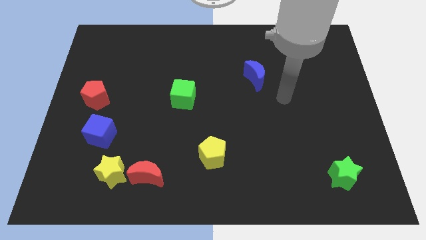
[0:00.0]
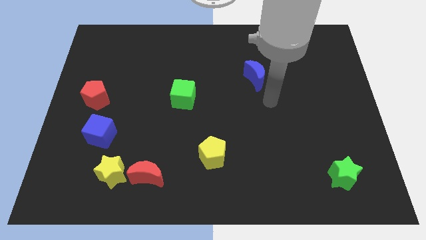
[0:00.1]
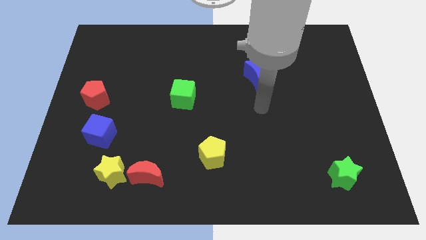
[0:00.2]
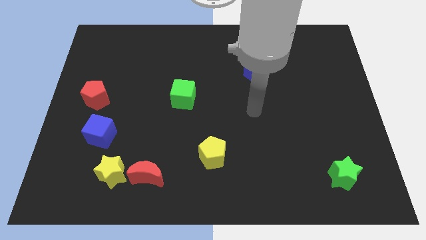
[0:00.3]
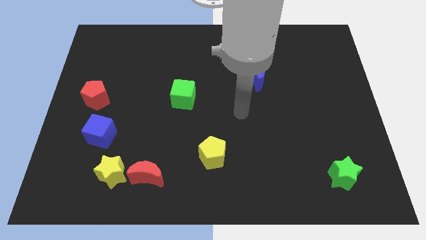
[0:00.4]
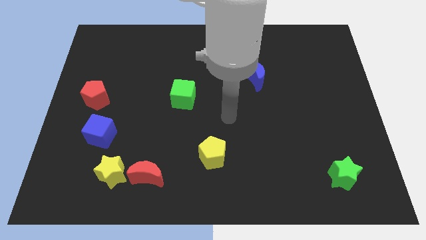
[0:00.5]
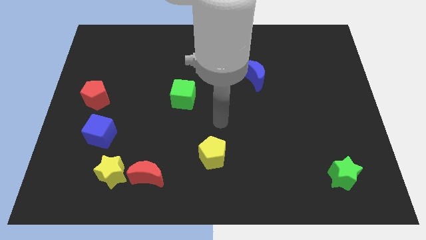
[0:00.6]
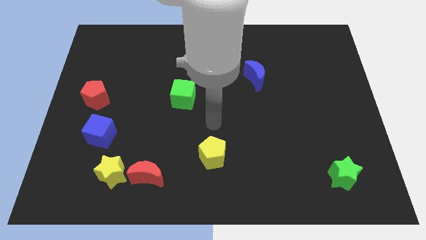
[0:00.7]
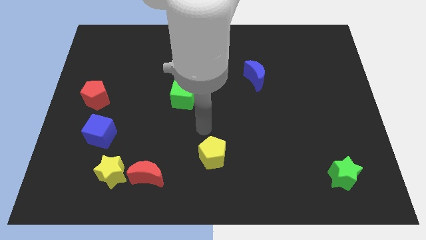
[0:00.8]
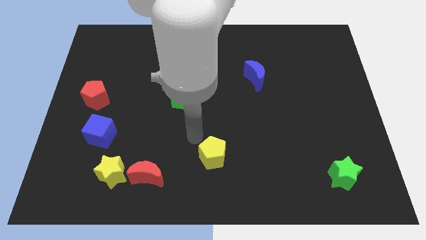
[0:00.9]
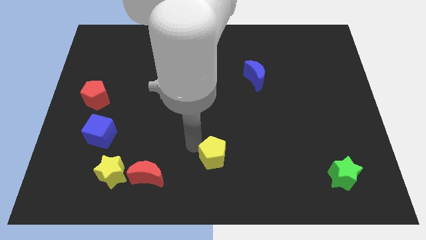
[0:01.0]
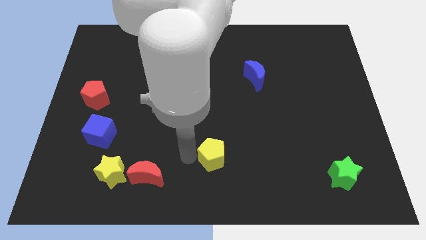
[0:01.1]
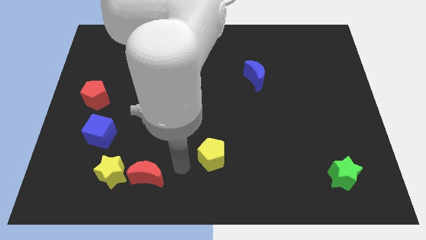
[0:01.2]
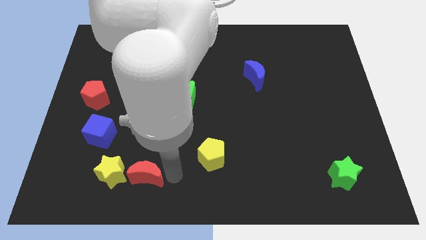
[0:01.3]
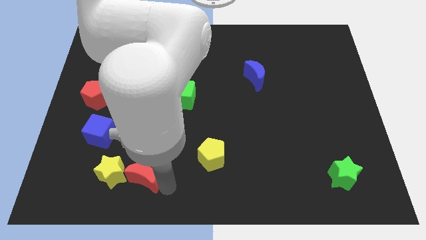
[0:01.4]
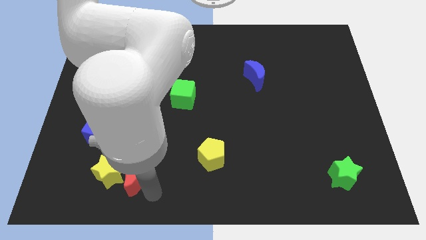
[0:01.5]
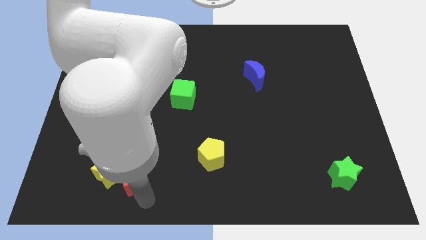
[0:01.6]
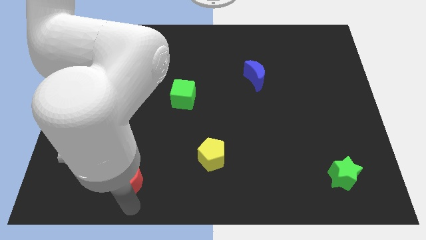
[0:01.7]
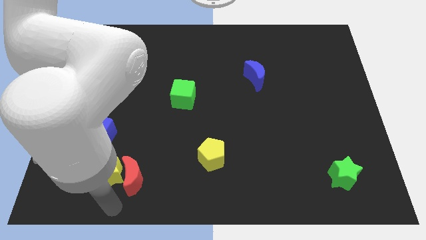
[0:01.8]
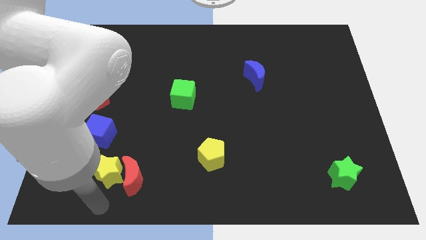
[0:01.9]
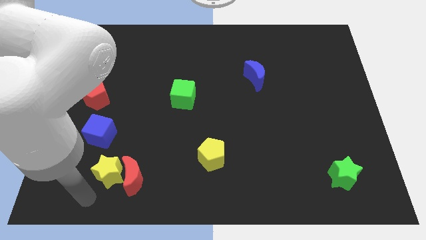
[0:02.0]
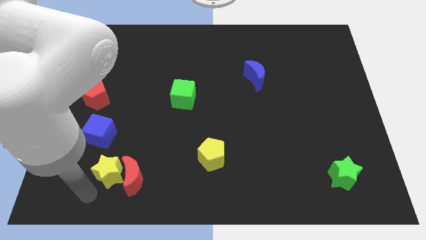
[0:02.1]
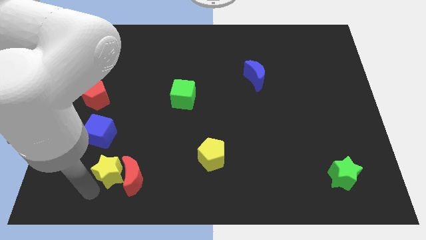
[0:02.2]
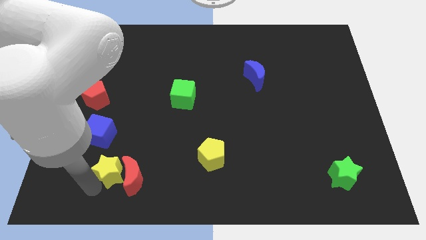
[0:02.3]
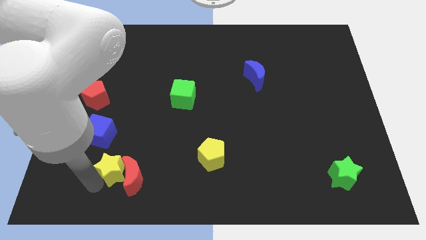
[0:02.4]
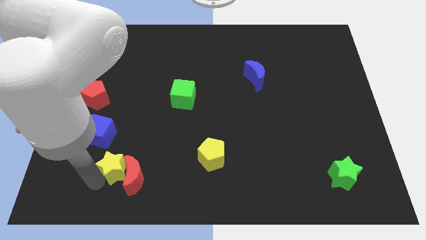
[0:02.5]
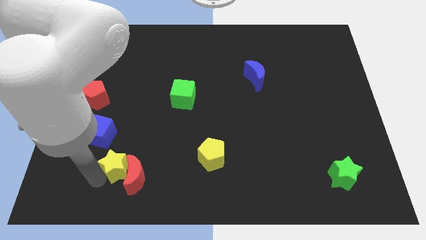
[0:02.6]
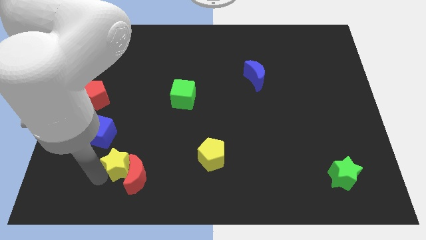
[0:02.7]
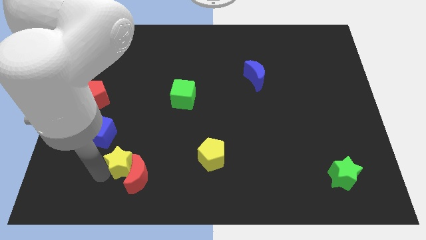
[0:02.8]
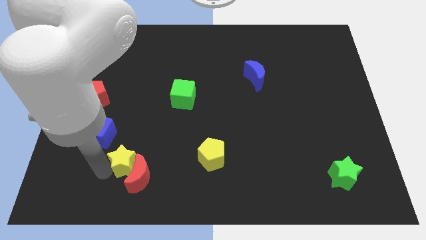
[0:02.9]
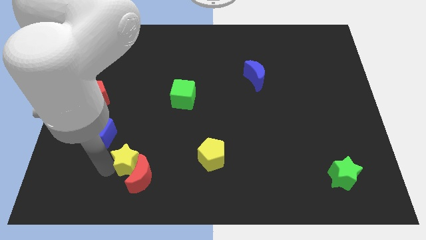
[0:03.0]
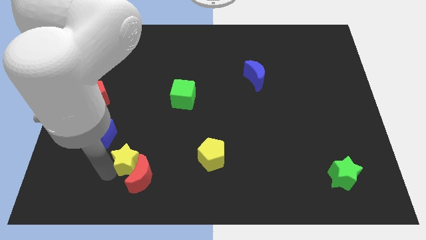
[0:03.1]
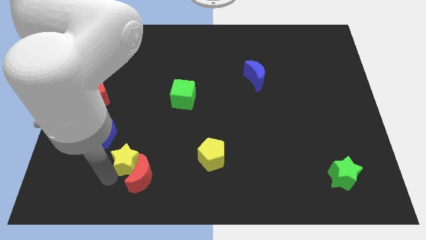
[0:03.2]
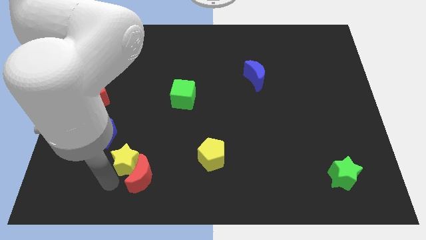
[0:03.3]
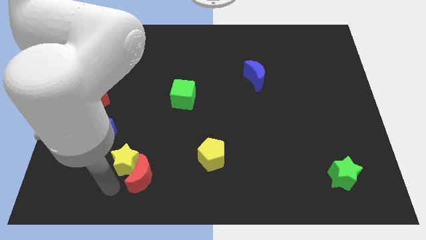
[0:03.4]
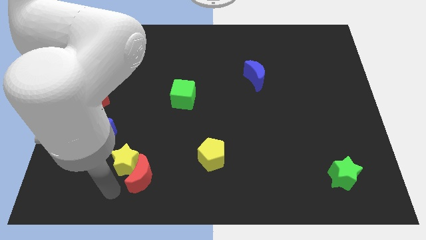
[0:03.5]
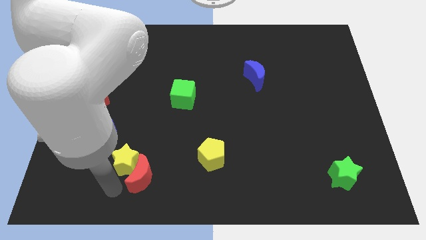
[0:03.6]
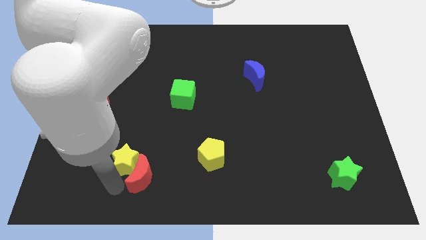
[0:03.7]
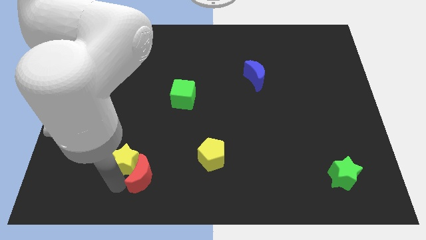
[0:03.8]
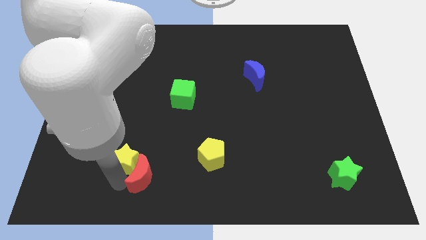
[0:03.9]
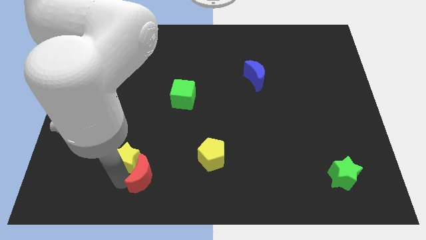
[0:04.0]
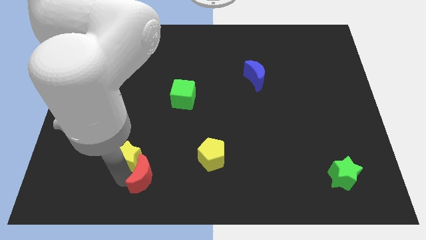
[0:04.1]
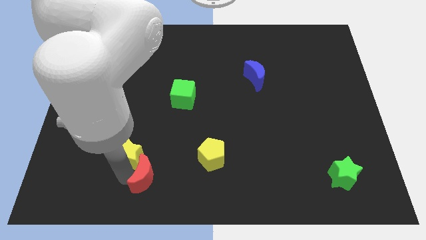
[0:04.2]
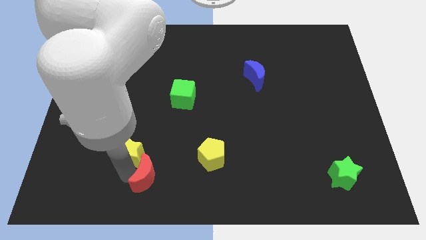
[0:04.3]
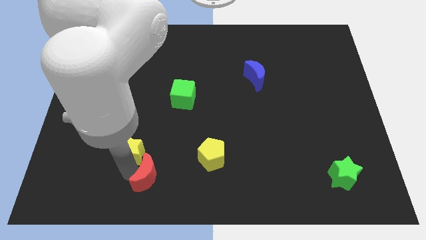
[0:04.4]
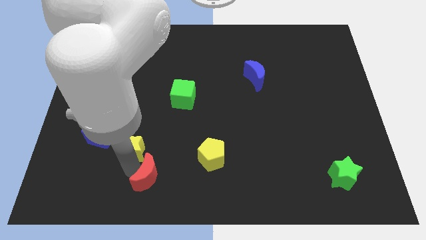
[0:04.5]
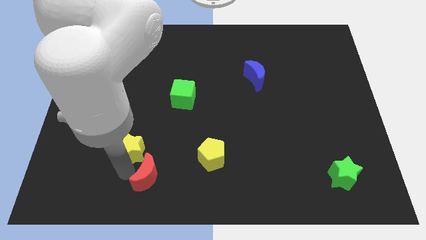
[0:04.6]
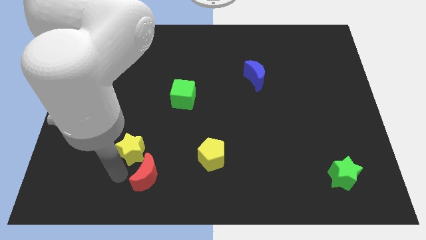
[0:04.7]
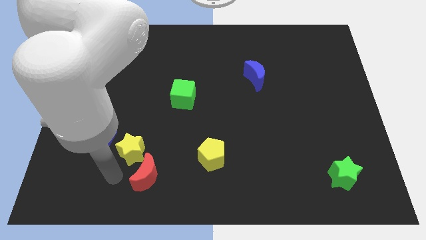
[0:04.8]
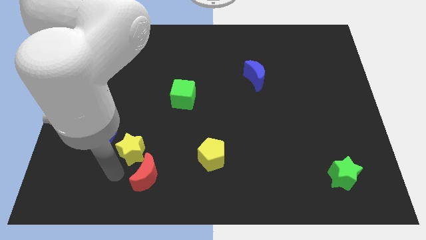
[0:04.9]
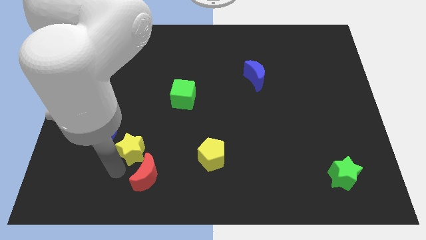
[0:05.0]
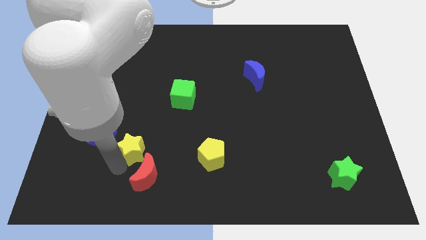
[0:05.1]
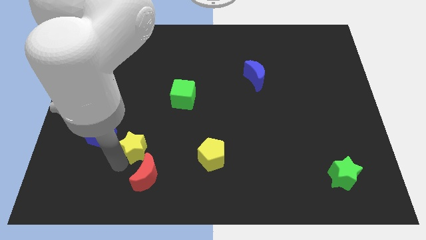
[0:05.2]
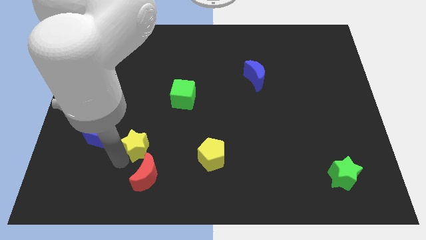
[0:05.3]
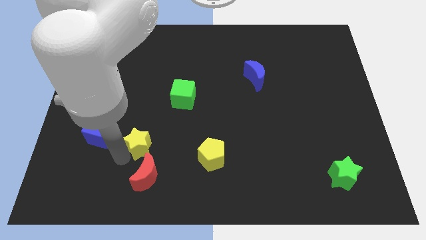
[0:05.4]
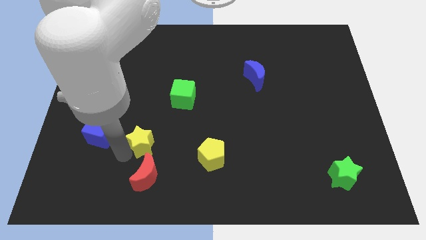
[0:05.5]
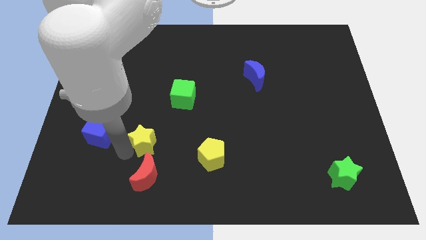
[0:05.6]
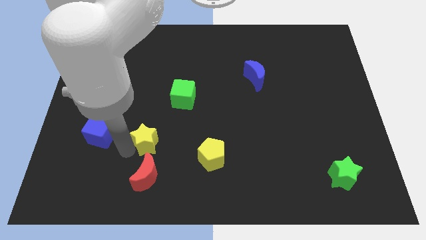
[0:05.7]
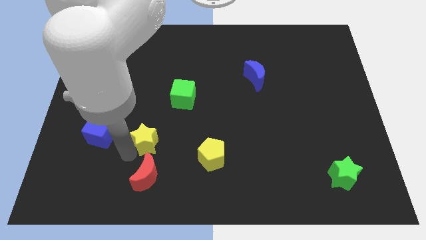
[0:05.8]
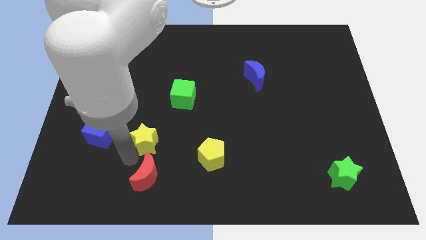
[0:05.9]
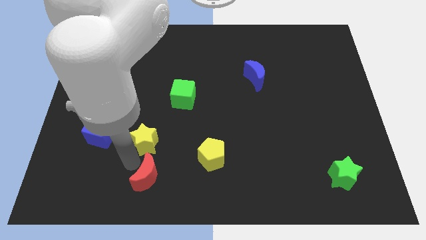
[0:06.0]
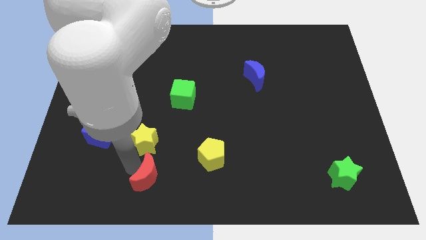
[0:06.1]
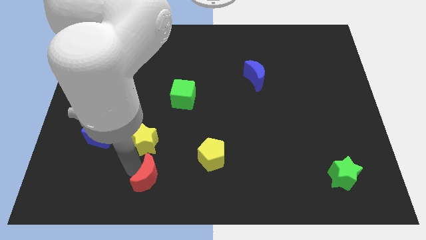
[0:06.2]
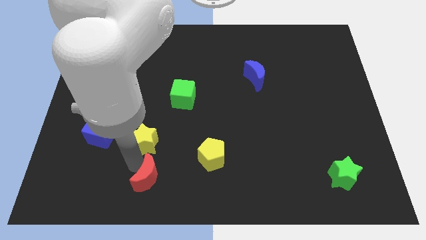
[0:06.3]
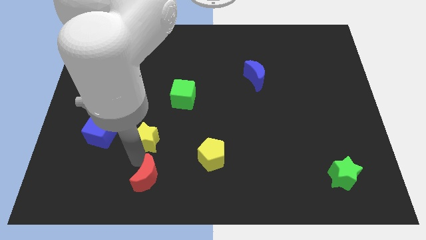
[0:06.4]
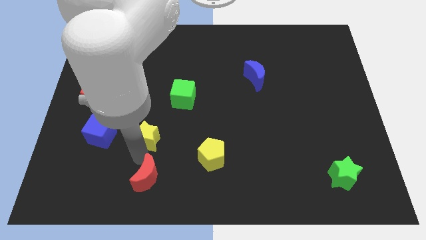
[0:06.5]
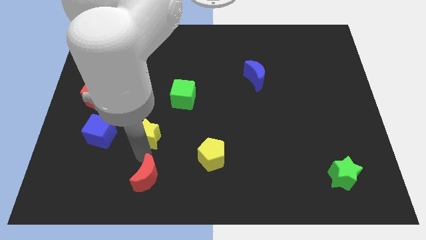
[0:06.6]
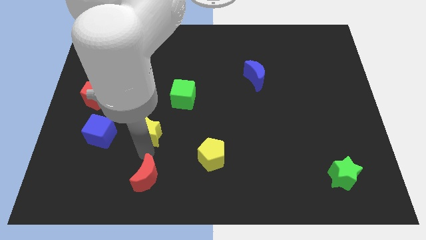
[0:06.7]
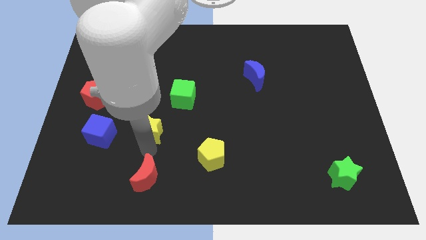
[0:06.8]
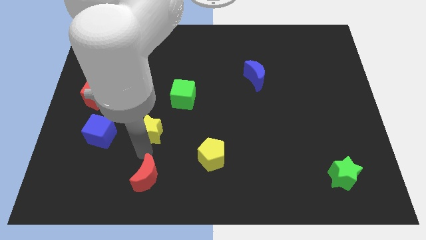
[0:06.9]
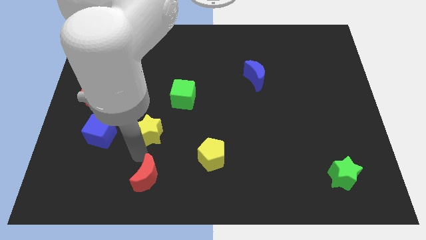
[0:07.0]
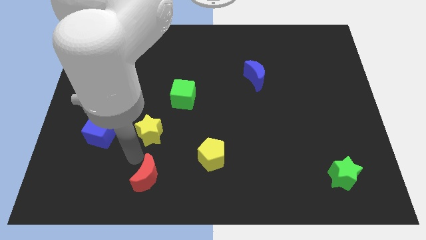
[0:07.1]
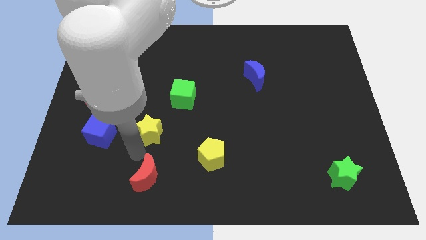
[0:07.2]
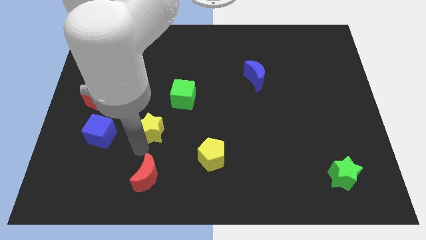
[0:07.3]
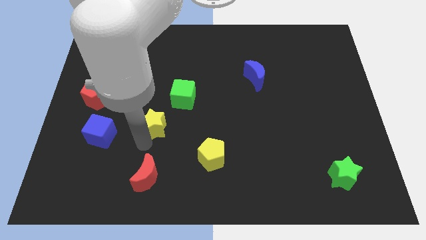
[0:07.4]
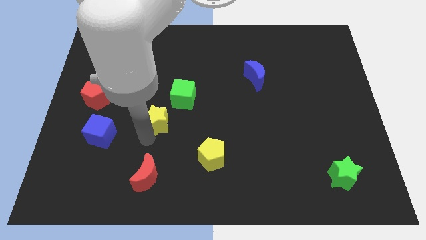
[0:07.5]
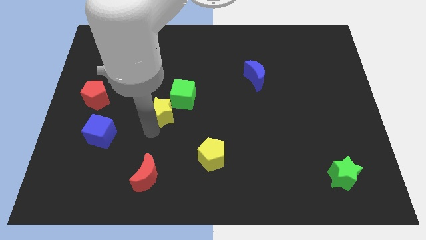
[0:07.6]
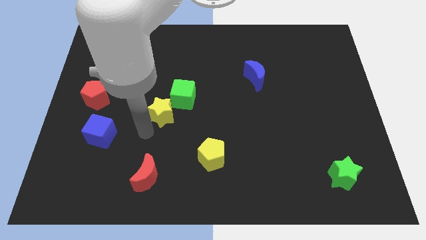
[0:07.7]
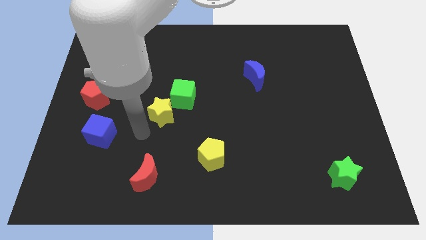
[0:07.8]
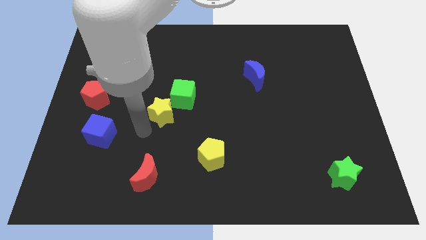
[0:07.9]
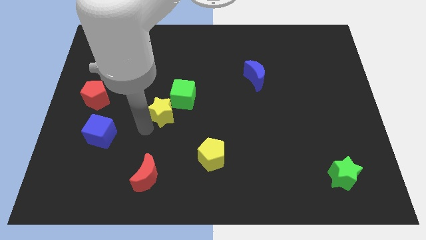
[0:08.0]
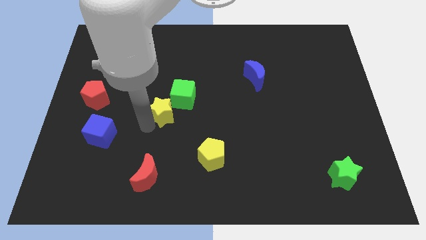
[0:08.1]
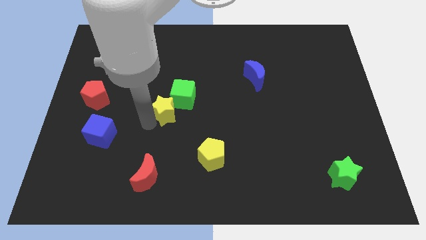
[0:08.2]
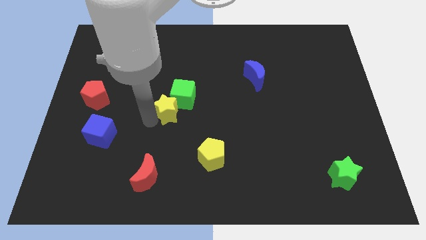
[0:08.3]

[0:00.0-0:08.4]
slide the yellow star towards the green cube
